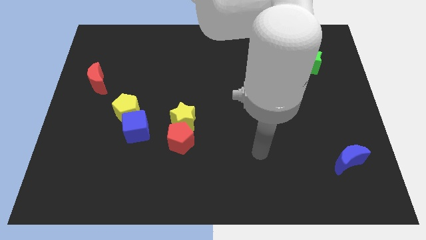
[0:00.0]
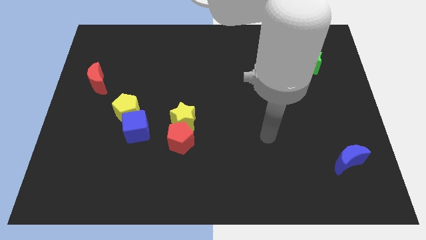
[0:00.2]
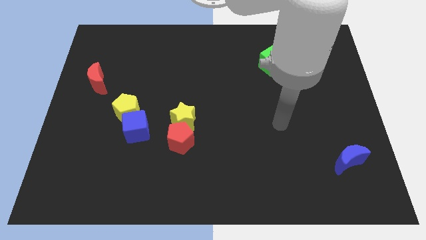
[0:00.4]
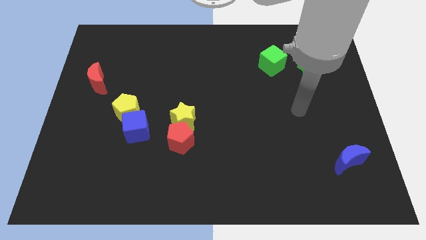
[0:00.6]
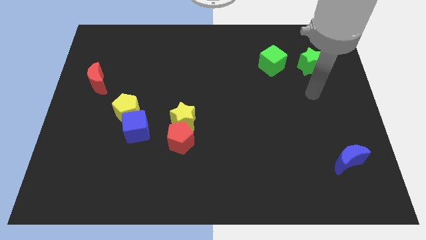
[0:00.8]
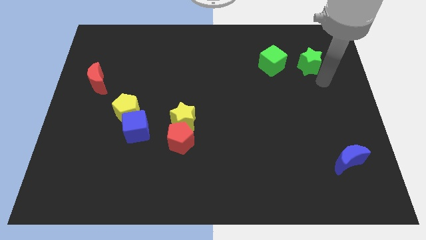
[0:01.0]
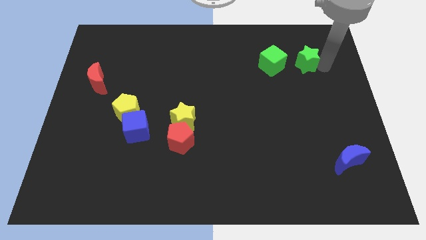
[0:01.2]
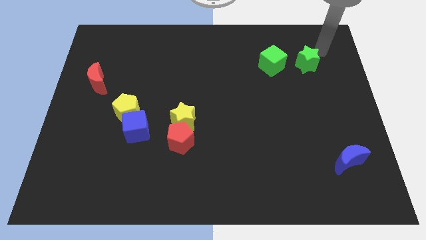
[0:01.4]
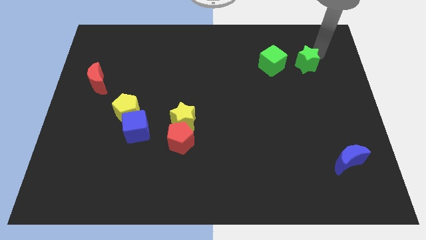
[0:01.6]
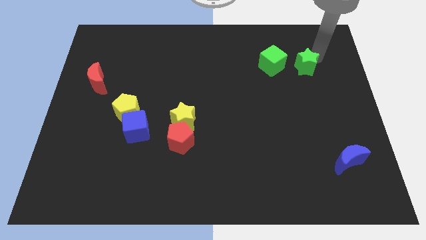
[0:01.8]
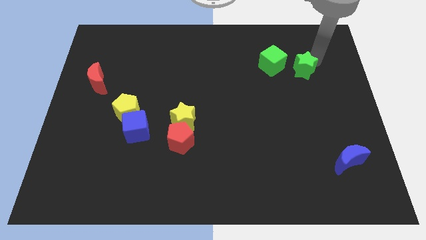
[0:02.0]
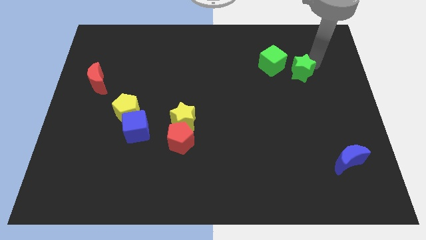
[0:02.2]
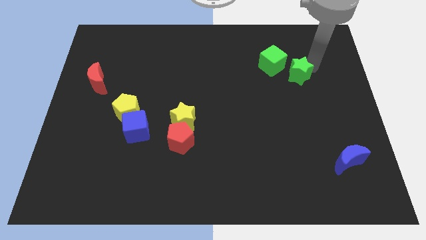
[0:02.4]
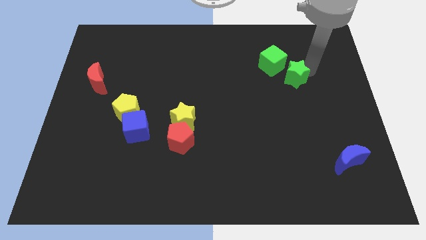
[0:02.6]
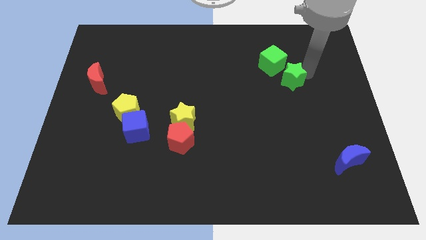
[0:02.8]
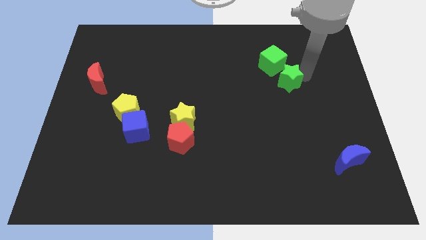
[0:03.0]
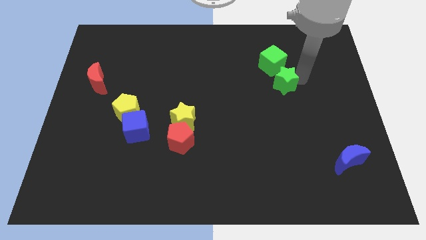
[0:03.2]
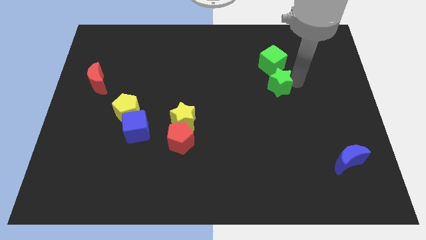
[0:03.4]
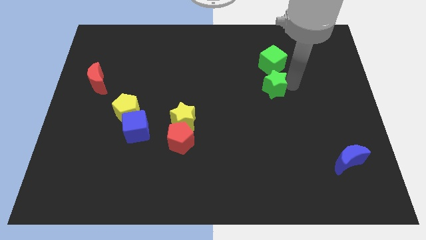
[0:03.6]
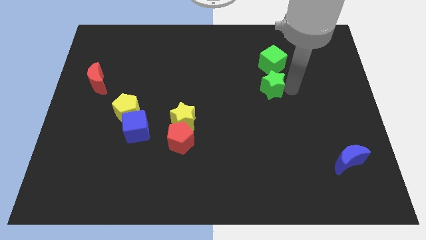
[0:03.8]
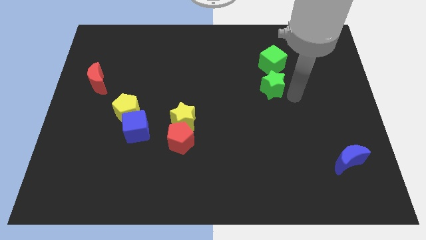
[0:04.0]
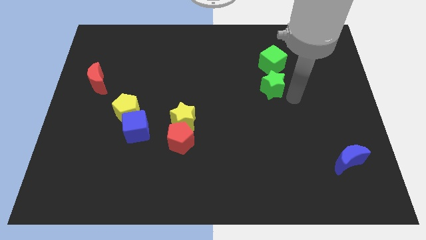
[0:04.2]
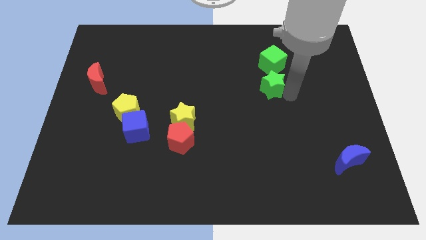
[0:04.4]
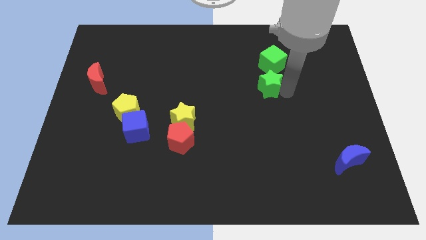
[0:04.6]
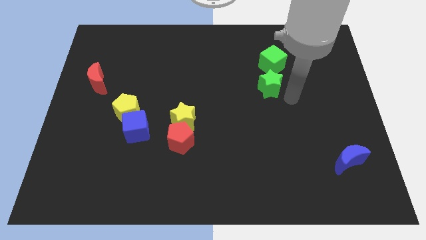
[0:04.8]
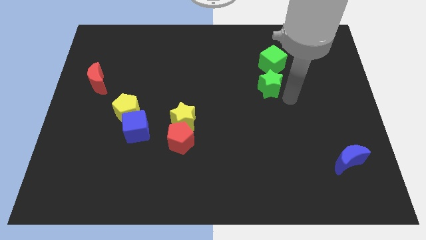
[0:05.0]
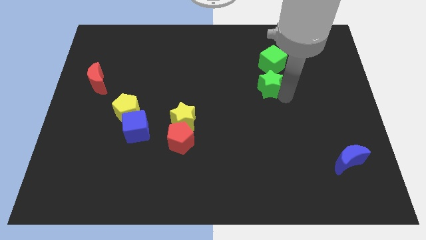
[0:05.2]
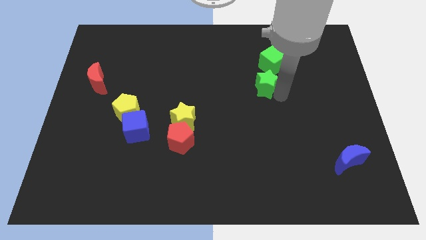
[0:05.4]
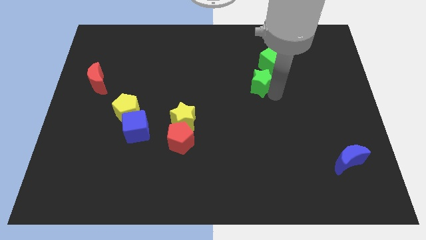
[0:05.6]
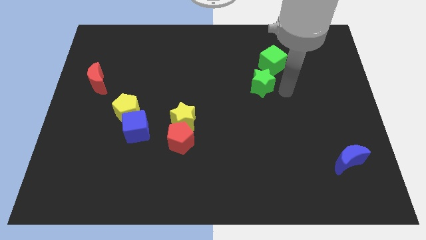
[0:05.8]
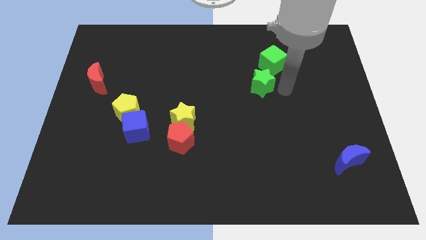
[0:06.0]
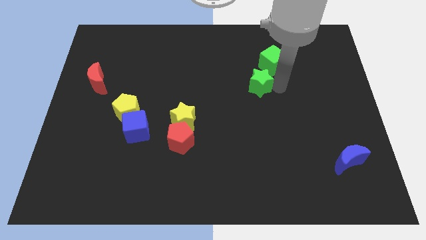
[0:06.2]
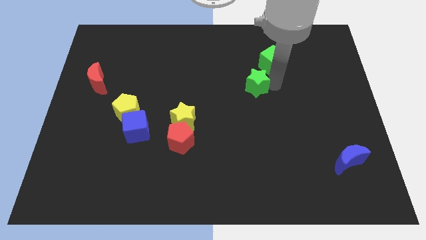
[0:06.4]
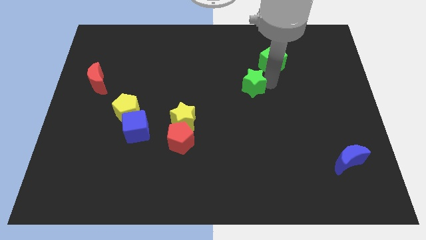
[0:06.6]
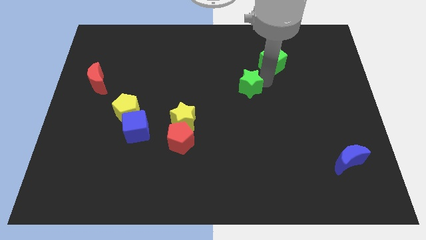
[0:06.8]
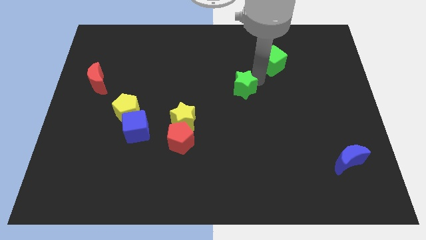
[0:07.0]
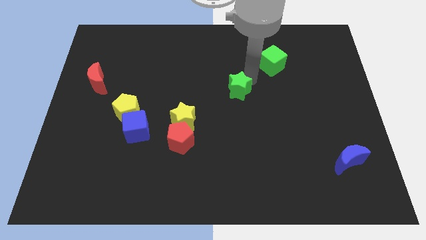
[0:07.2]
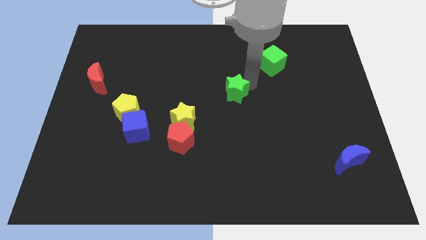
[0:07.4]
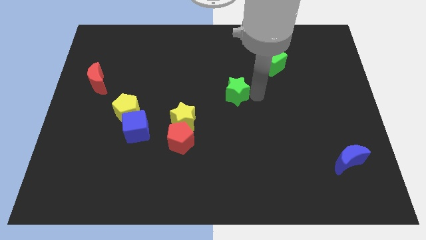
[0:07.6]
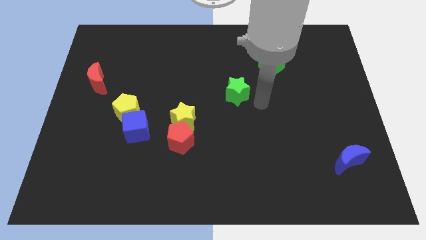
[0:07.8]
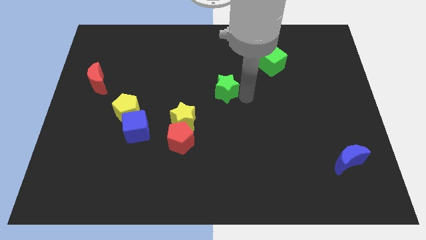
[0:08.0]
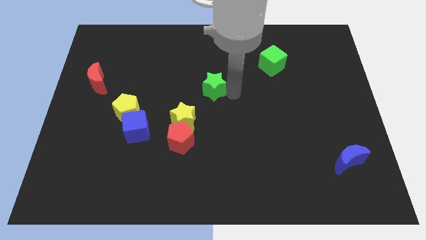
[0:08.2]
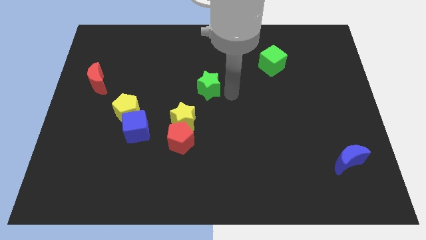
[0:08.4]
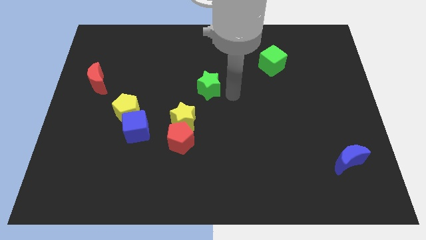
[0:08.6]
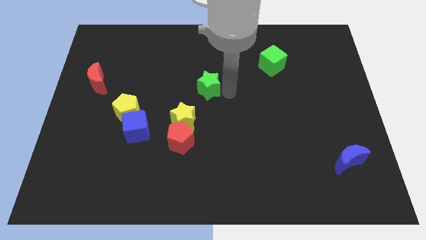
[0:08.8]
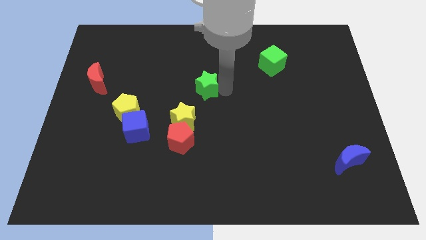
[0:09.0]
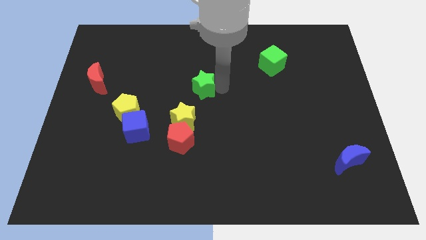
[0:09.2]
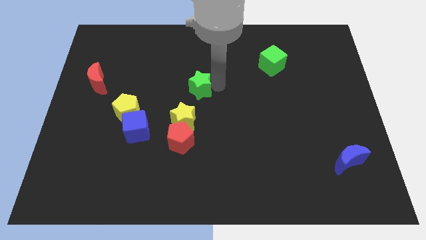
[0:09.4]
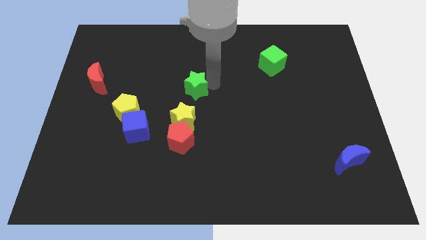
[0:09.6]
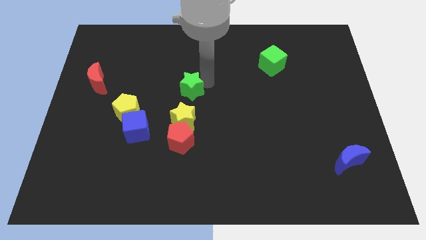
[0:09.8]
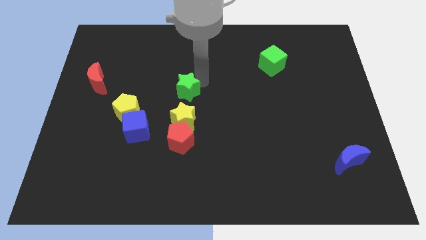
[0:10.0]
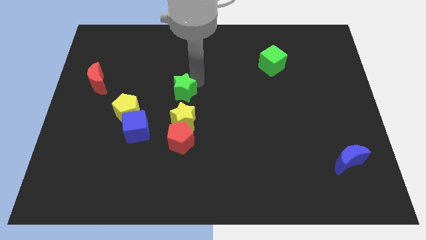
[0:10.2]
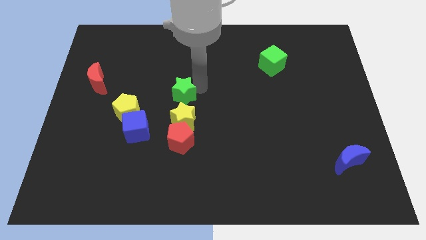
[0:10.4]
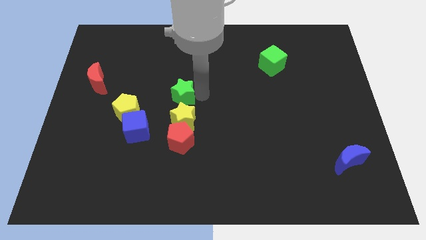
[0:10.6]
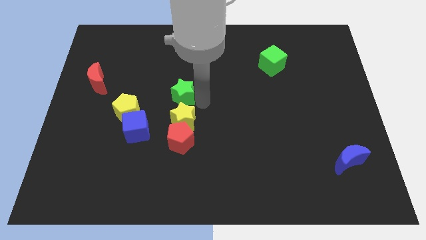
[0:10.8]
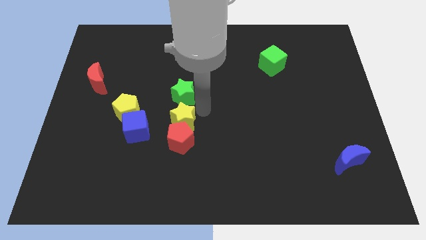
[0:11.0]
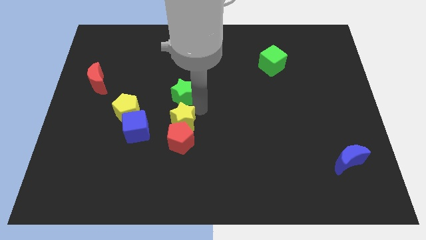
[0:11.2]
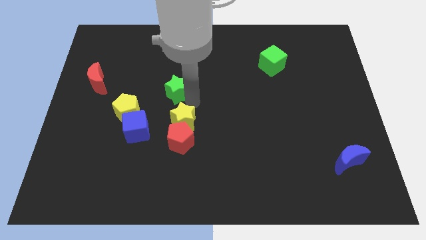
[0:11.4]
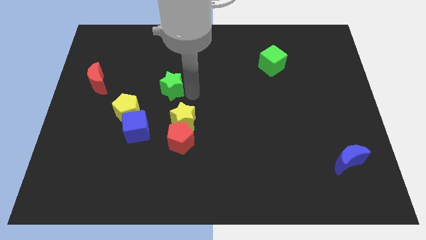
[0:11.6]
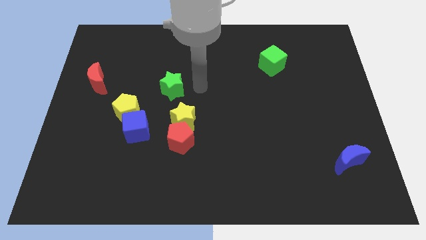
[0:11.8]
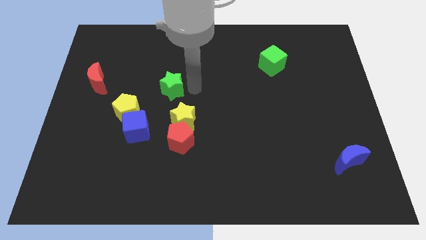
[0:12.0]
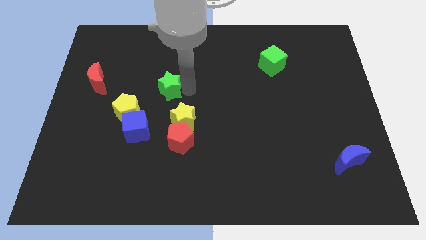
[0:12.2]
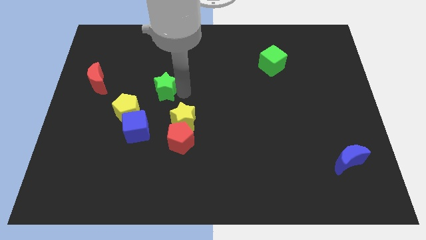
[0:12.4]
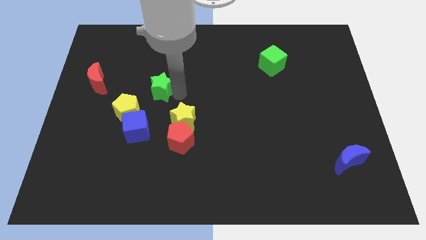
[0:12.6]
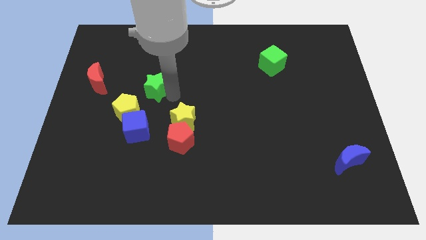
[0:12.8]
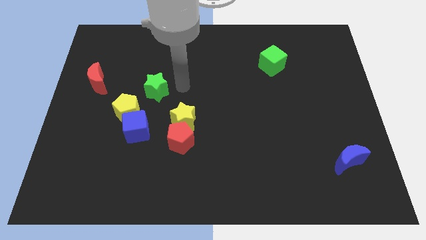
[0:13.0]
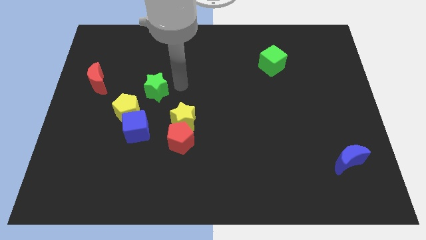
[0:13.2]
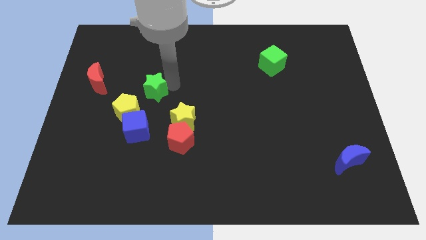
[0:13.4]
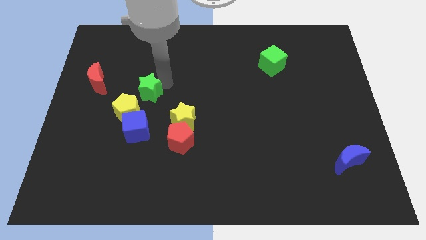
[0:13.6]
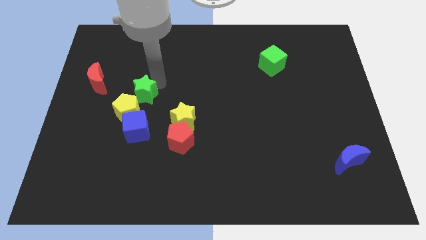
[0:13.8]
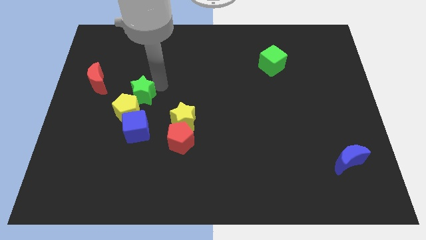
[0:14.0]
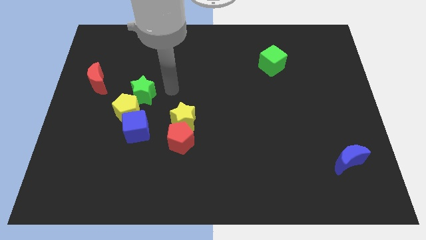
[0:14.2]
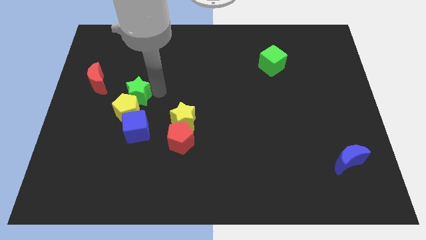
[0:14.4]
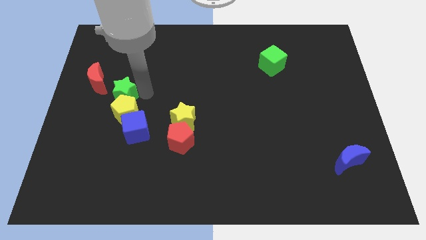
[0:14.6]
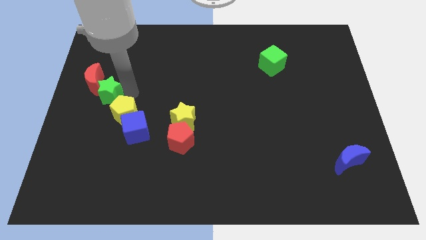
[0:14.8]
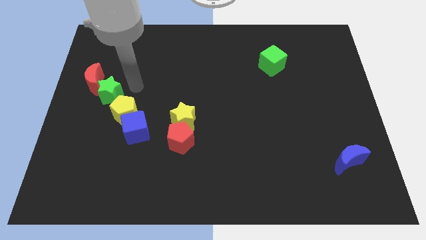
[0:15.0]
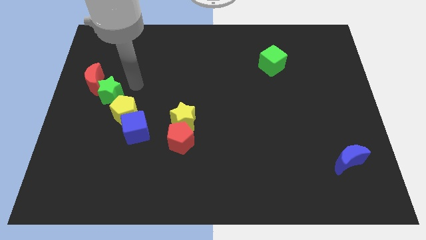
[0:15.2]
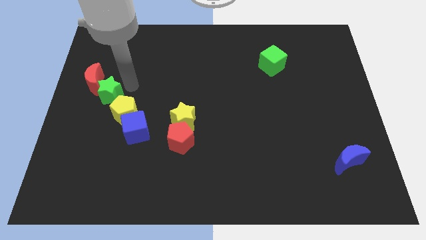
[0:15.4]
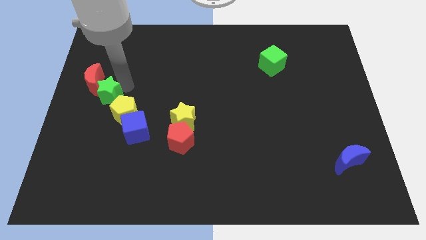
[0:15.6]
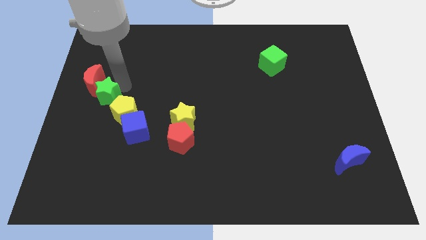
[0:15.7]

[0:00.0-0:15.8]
push the green star to the left side of the board

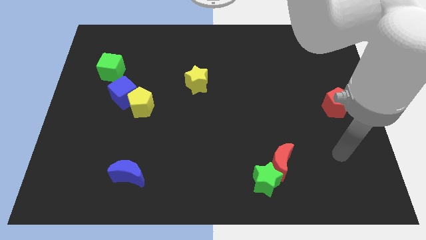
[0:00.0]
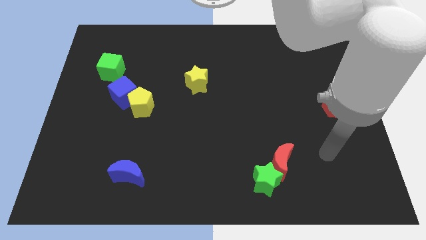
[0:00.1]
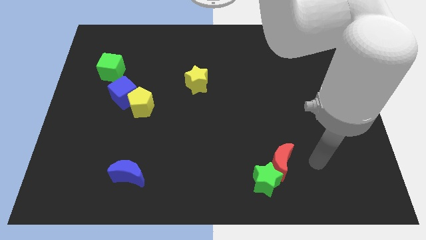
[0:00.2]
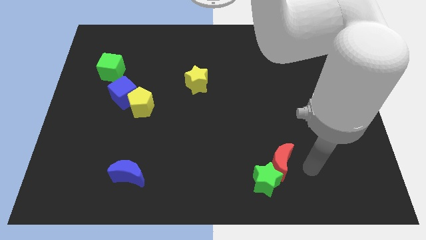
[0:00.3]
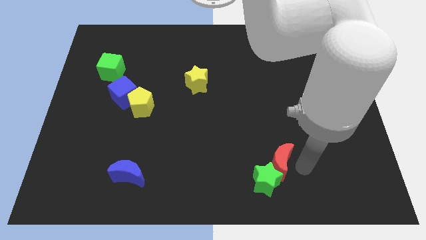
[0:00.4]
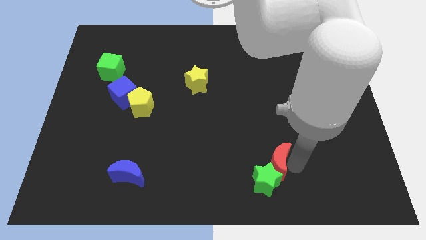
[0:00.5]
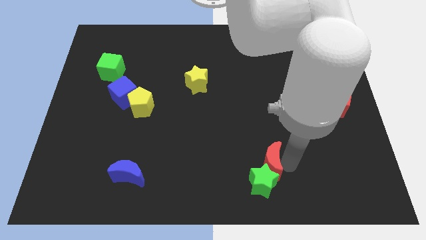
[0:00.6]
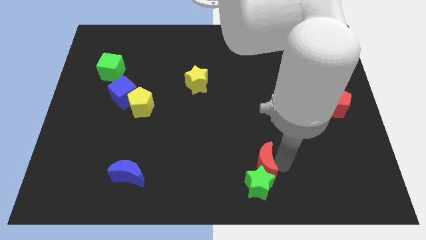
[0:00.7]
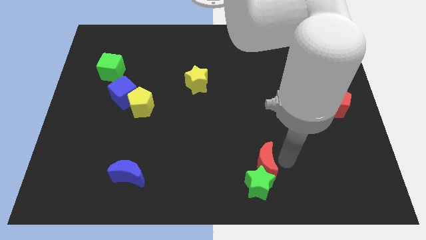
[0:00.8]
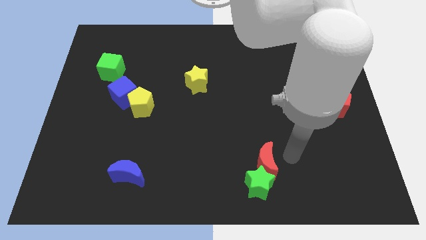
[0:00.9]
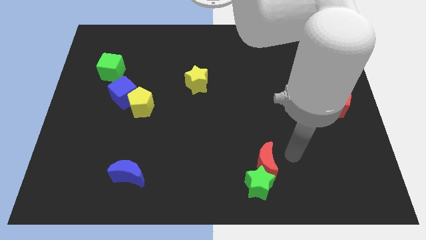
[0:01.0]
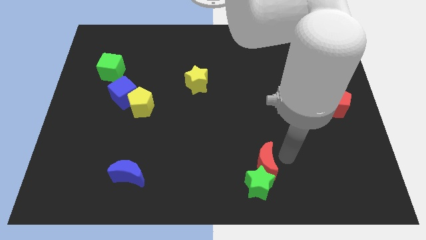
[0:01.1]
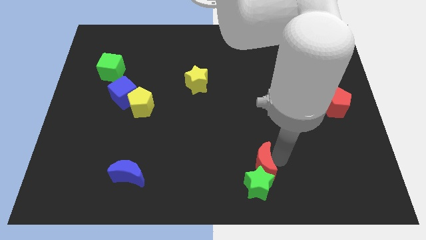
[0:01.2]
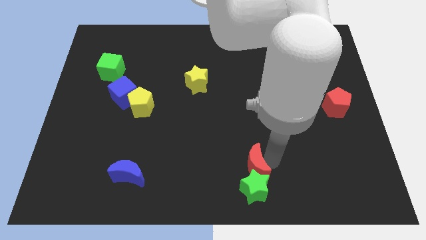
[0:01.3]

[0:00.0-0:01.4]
push the red moon to the bottom
